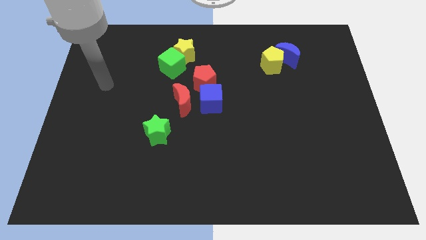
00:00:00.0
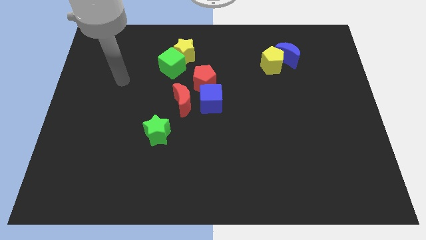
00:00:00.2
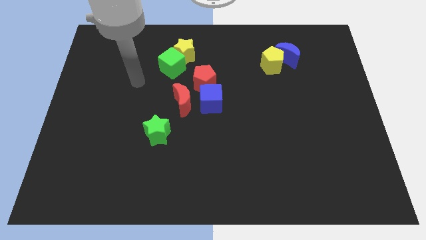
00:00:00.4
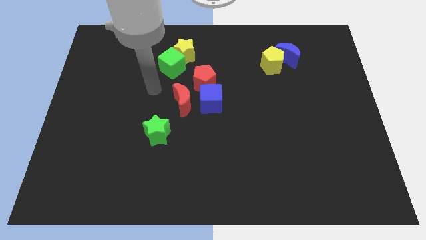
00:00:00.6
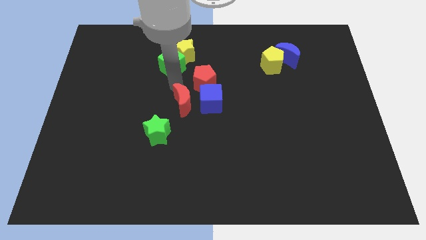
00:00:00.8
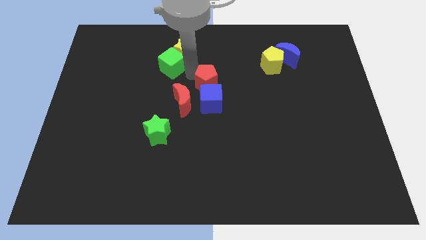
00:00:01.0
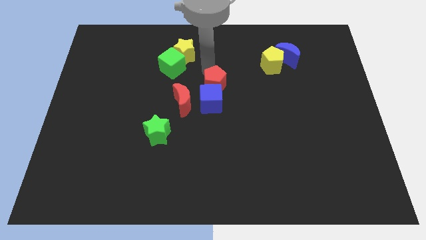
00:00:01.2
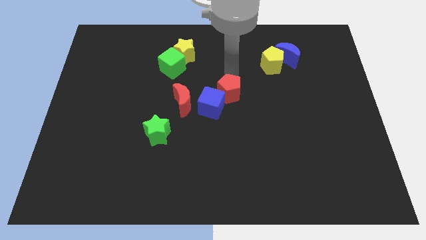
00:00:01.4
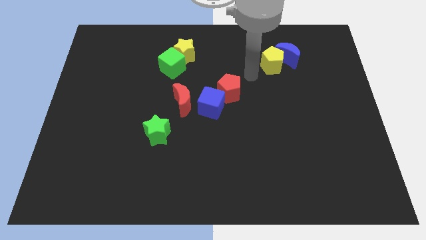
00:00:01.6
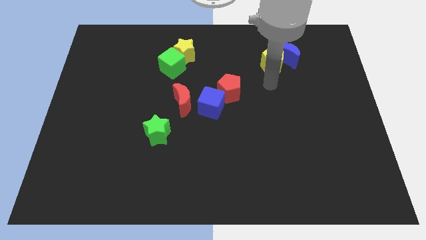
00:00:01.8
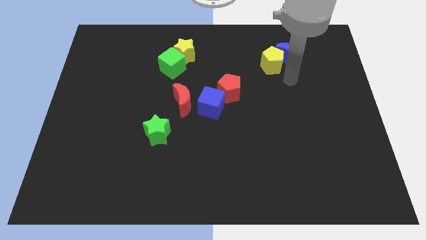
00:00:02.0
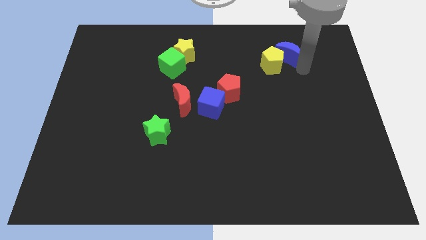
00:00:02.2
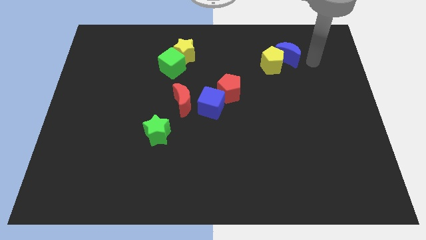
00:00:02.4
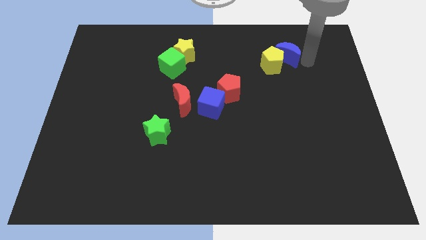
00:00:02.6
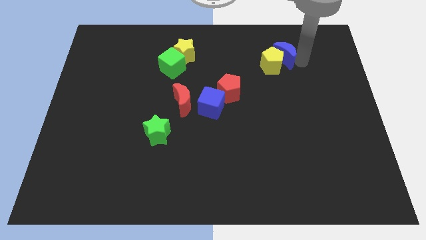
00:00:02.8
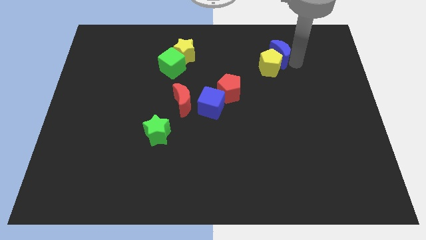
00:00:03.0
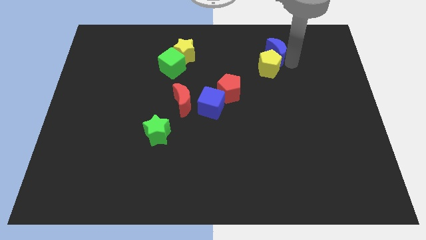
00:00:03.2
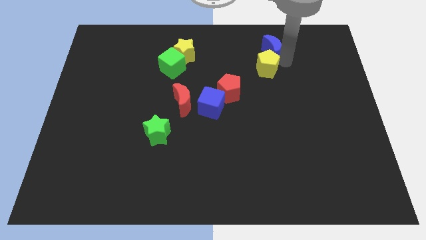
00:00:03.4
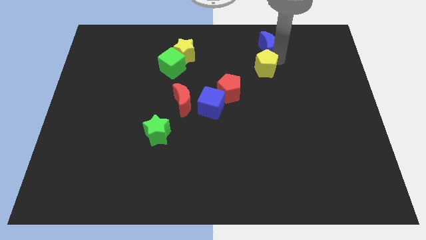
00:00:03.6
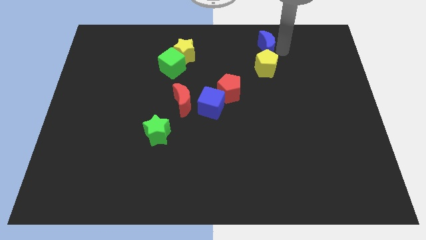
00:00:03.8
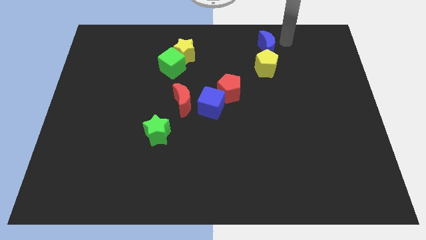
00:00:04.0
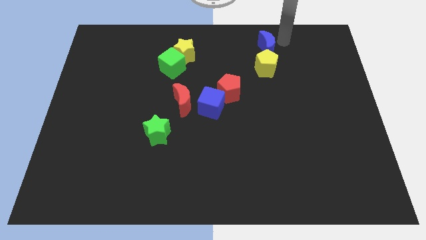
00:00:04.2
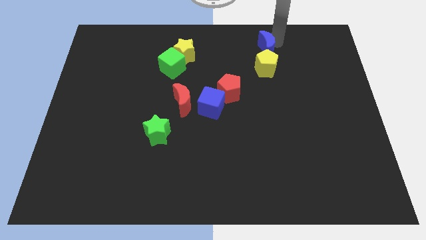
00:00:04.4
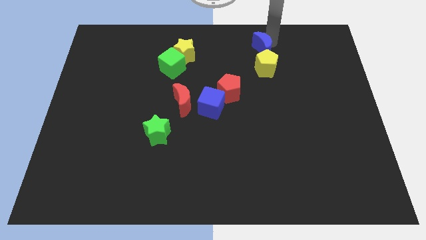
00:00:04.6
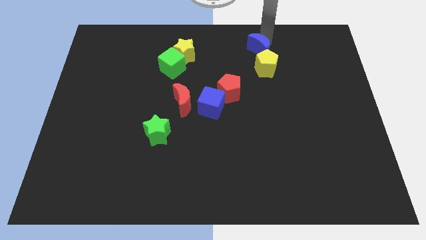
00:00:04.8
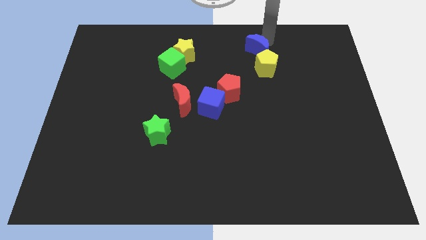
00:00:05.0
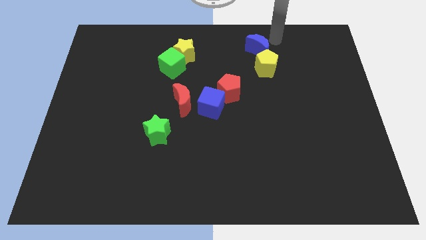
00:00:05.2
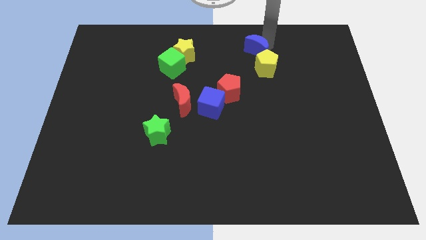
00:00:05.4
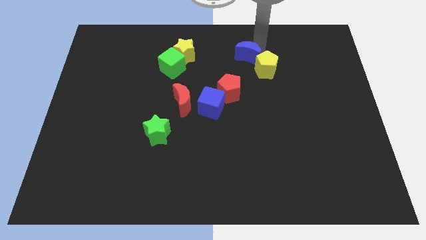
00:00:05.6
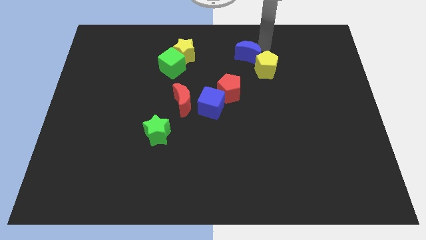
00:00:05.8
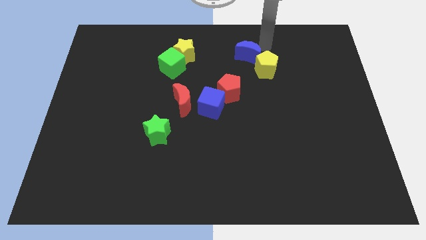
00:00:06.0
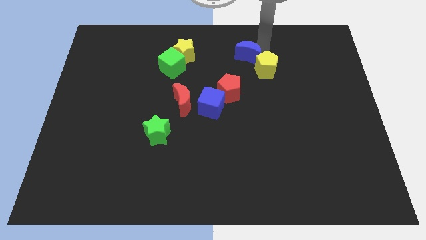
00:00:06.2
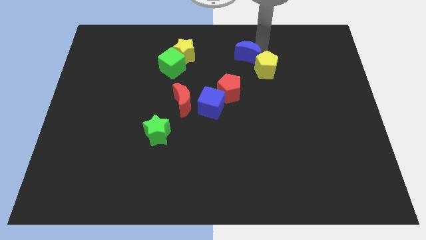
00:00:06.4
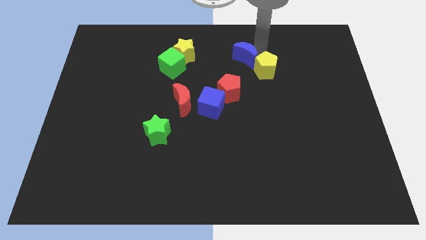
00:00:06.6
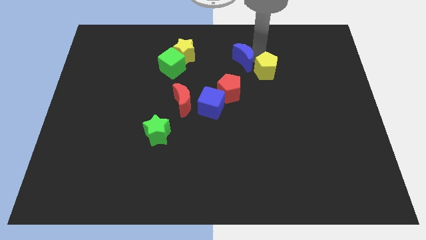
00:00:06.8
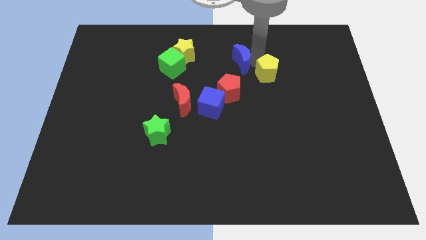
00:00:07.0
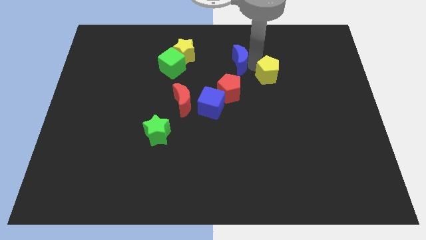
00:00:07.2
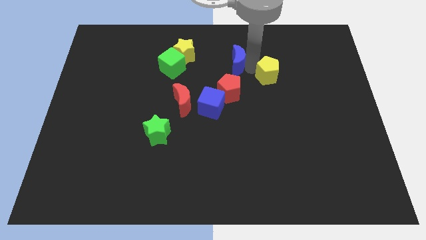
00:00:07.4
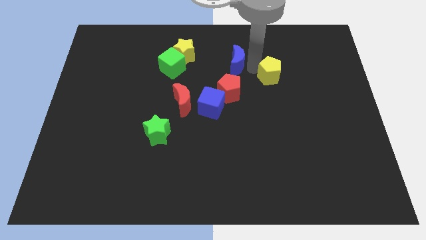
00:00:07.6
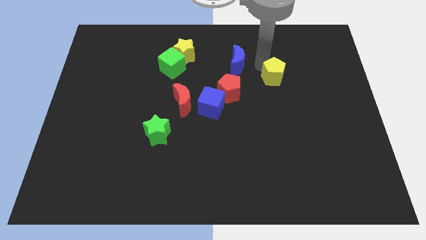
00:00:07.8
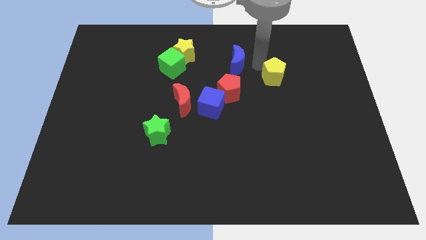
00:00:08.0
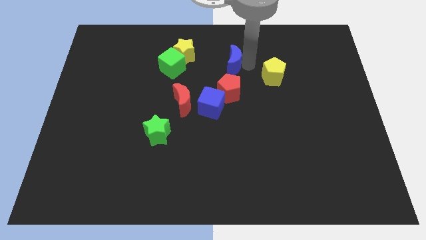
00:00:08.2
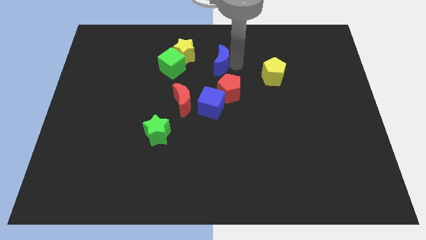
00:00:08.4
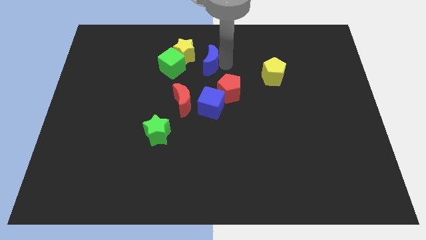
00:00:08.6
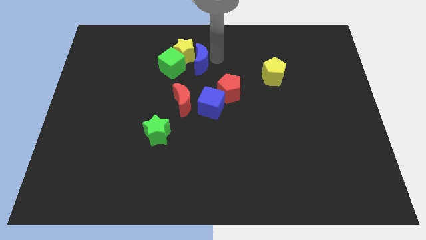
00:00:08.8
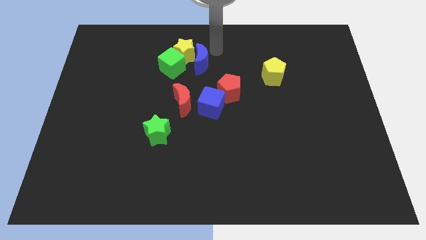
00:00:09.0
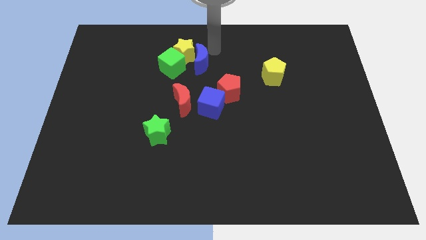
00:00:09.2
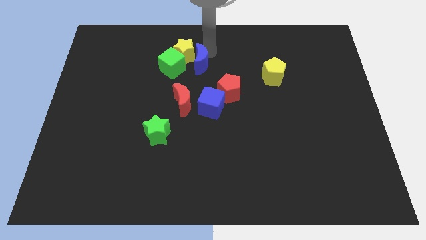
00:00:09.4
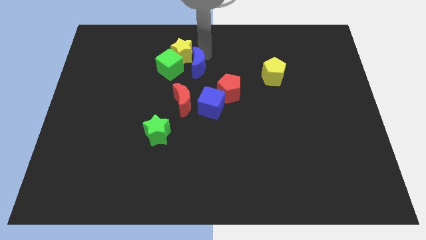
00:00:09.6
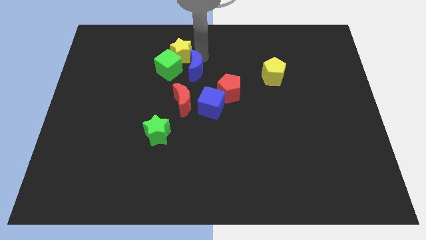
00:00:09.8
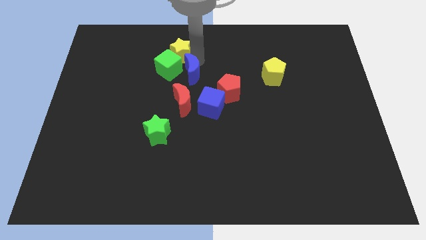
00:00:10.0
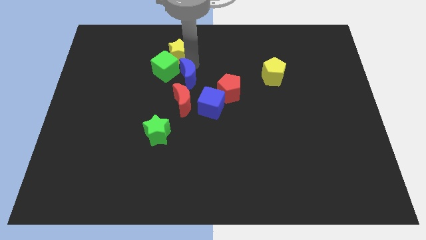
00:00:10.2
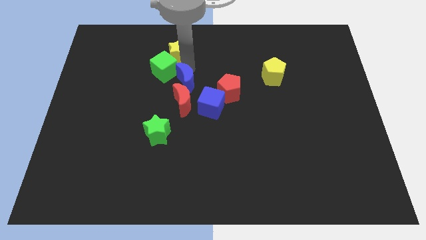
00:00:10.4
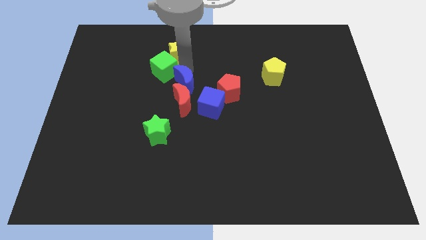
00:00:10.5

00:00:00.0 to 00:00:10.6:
slide the blue moon close to the red moon

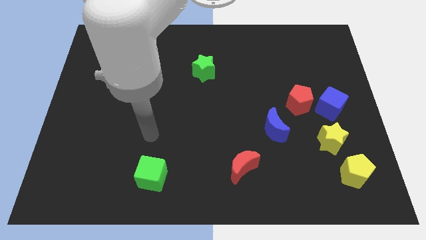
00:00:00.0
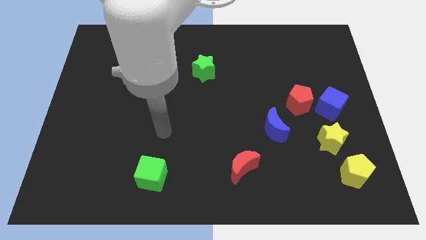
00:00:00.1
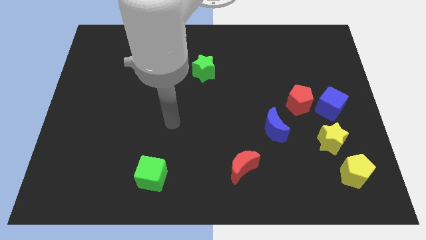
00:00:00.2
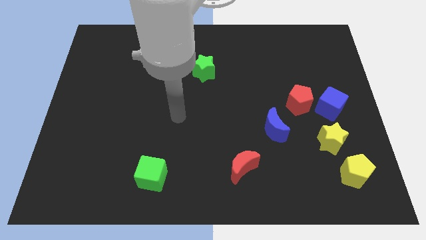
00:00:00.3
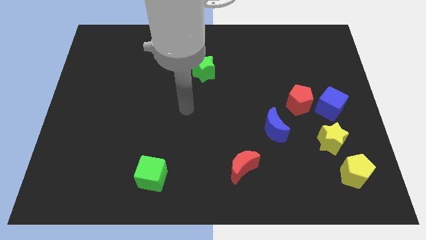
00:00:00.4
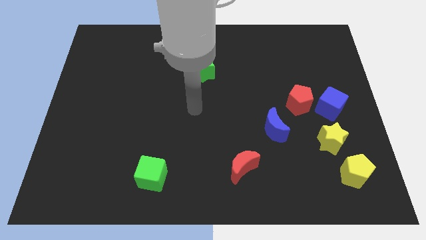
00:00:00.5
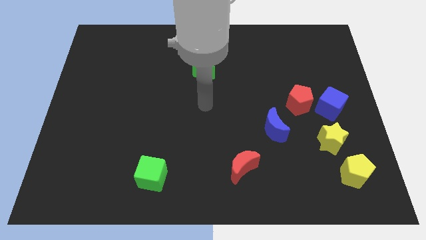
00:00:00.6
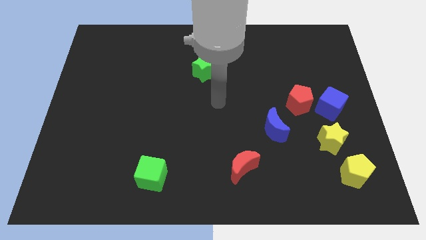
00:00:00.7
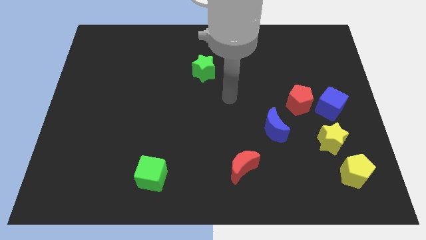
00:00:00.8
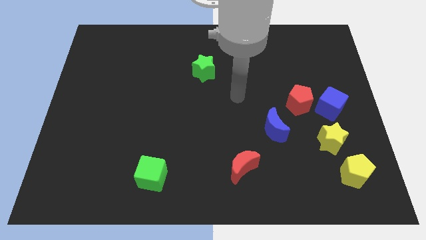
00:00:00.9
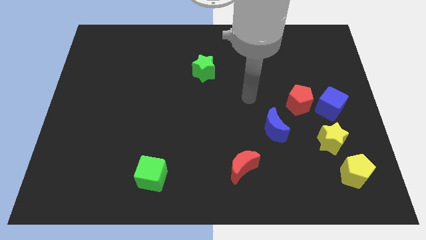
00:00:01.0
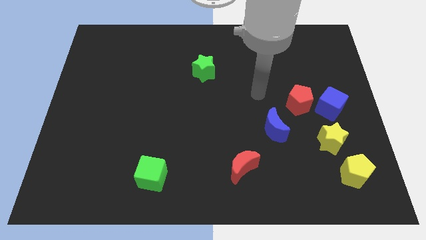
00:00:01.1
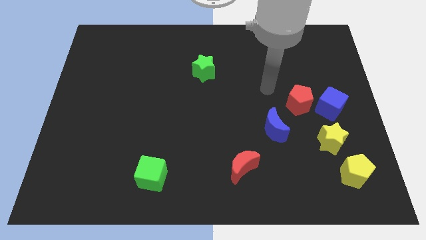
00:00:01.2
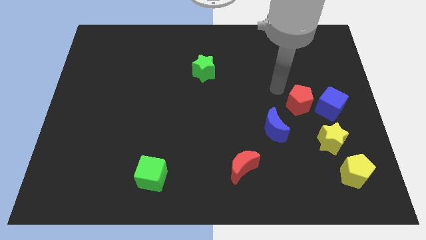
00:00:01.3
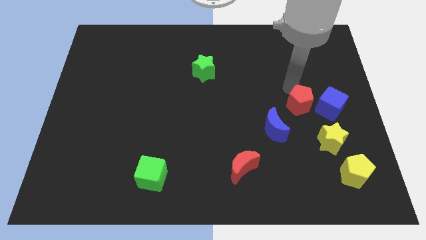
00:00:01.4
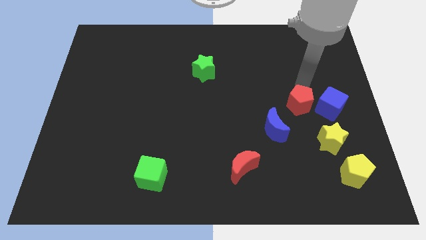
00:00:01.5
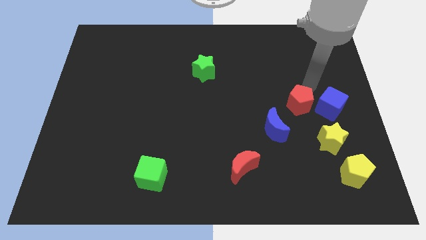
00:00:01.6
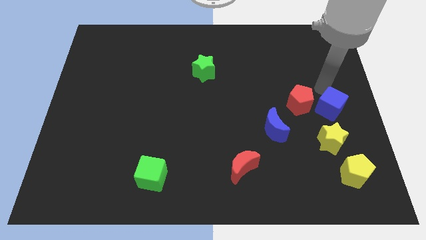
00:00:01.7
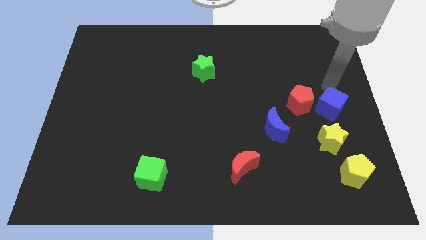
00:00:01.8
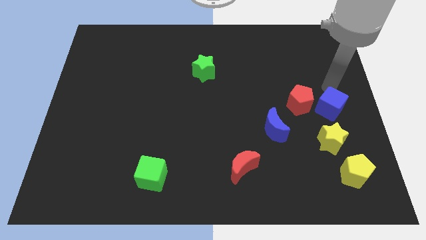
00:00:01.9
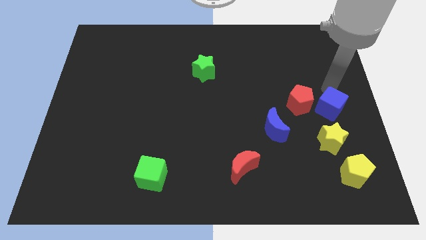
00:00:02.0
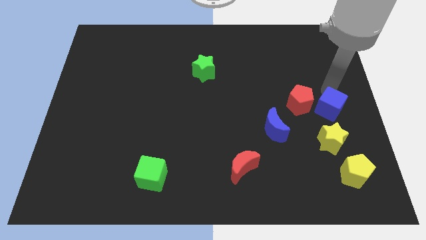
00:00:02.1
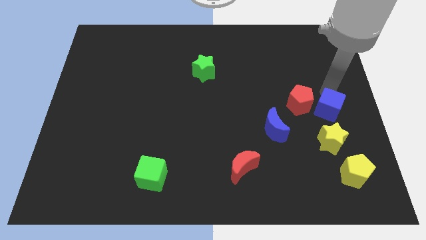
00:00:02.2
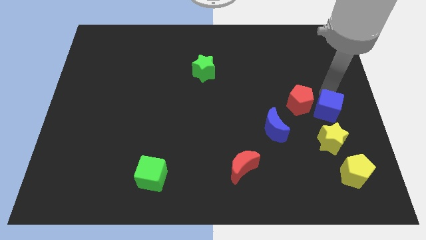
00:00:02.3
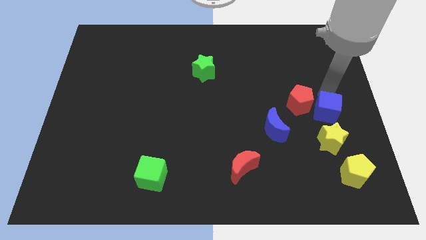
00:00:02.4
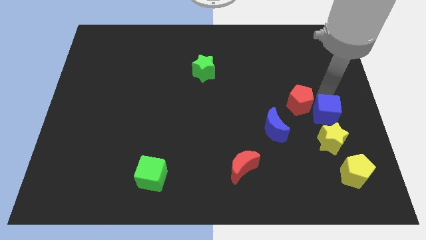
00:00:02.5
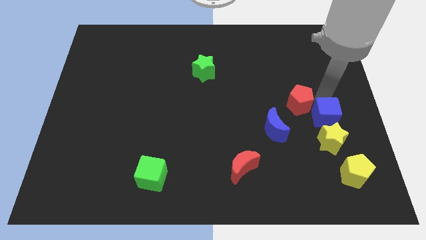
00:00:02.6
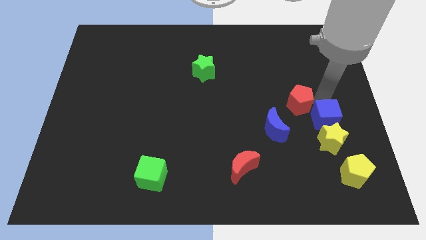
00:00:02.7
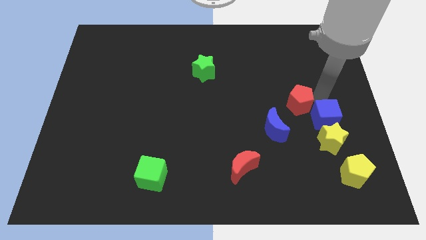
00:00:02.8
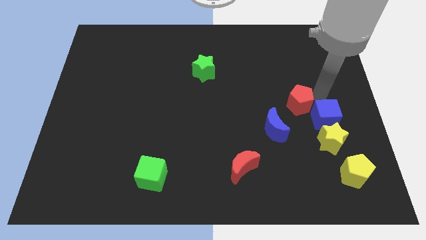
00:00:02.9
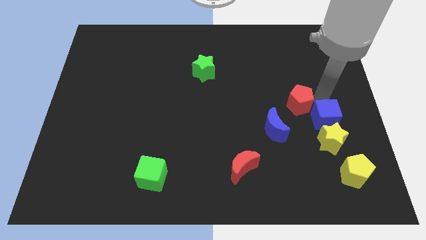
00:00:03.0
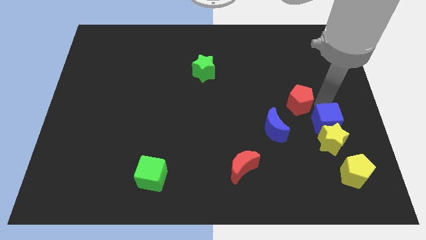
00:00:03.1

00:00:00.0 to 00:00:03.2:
move the blue cube close to the yellow star
